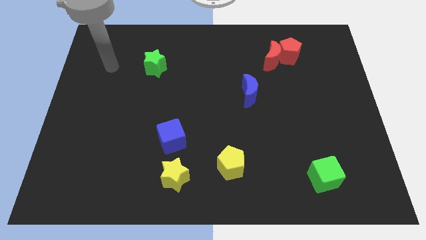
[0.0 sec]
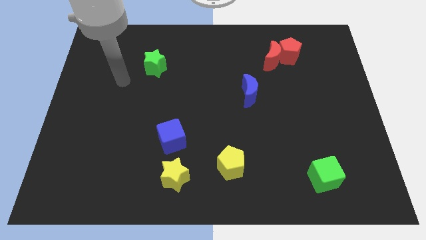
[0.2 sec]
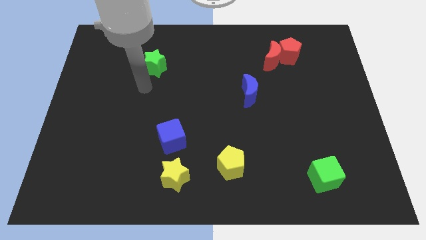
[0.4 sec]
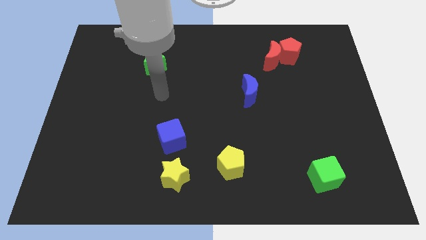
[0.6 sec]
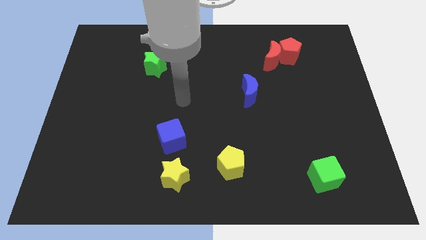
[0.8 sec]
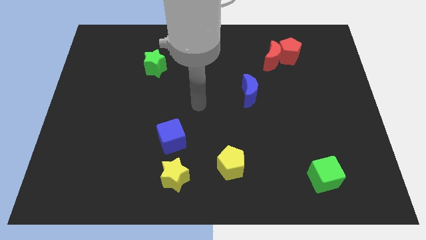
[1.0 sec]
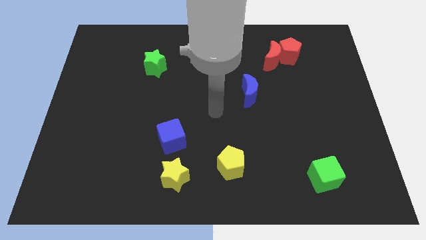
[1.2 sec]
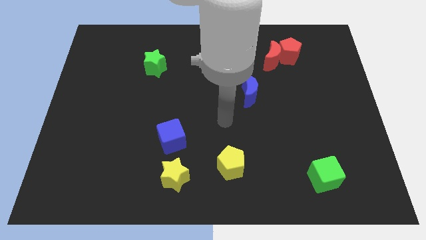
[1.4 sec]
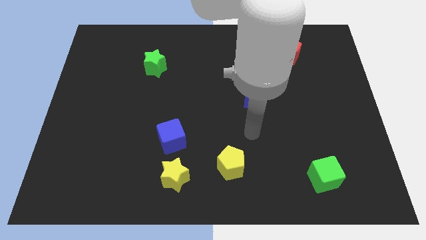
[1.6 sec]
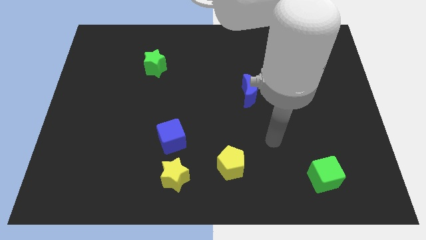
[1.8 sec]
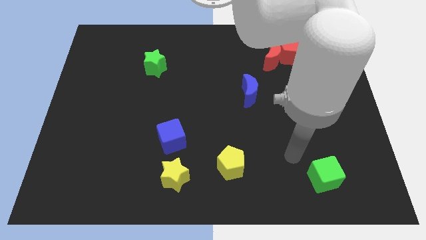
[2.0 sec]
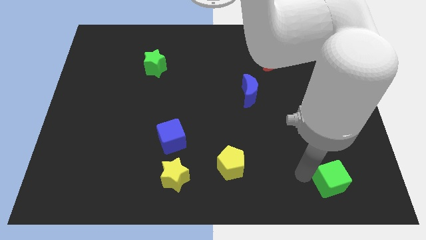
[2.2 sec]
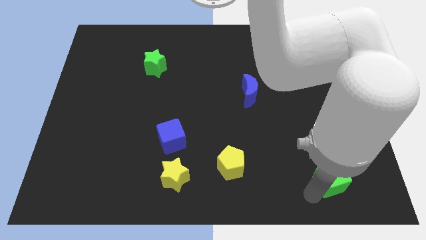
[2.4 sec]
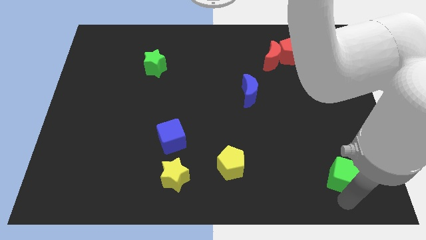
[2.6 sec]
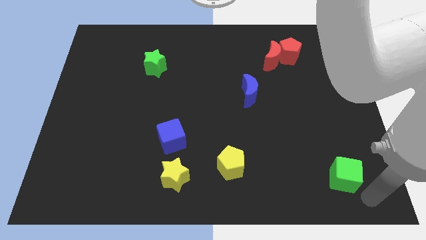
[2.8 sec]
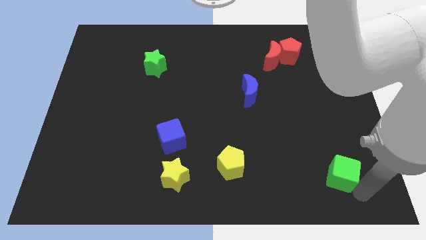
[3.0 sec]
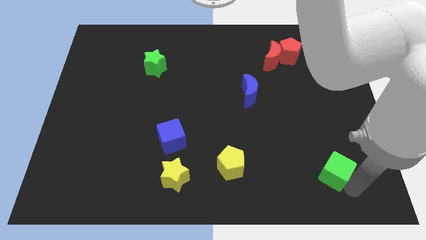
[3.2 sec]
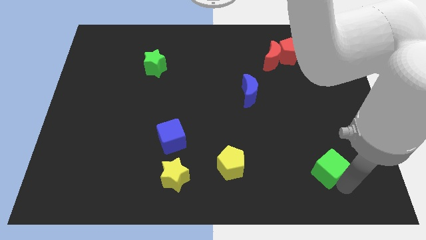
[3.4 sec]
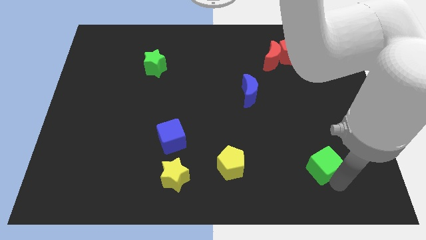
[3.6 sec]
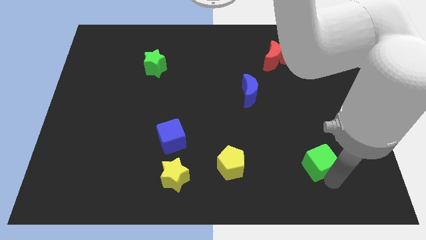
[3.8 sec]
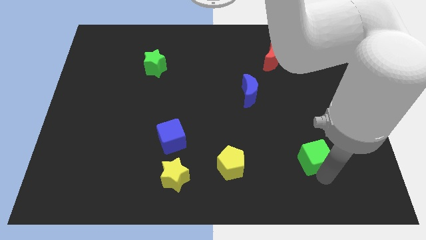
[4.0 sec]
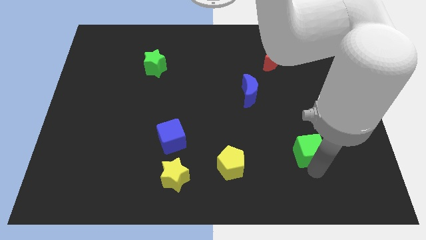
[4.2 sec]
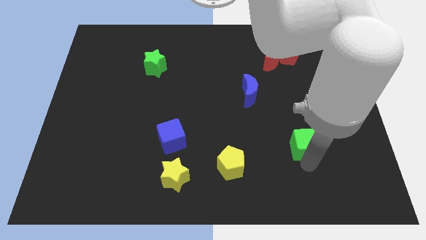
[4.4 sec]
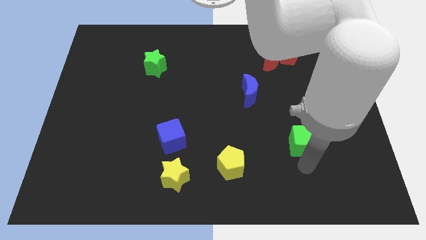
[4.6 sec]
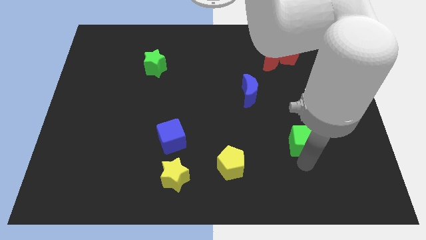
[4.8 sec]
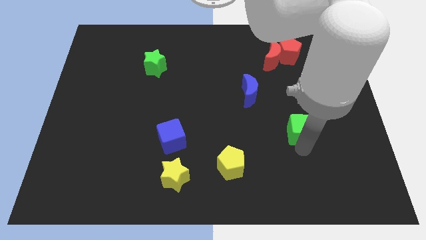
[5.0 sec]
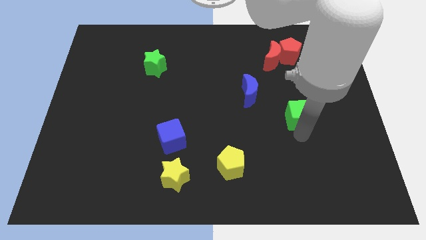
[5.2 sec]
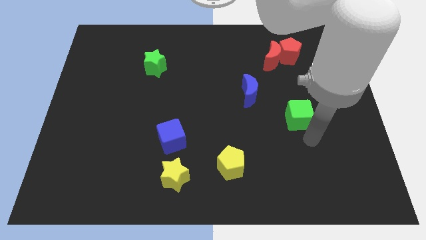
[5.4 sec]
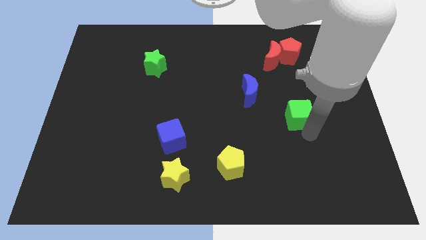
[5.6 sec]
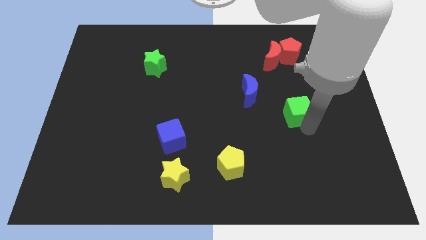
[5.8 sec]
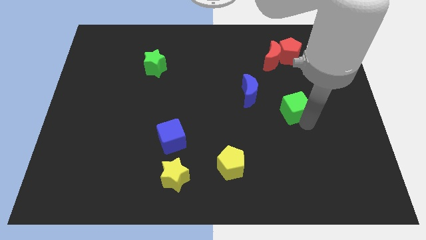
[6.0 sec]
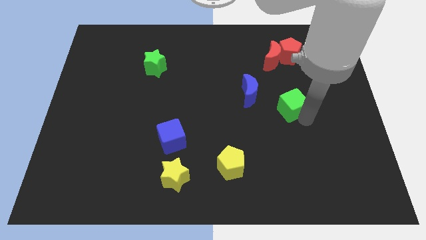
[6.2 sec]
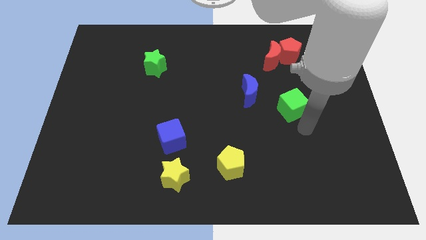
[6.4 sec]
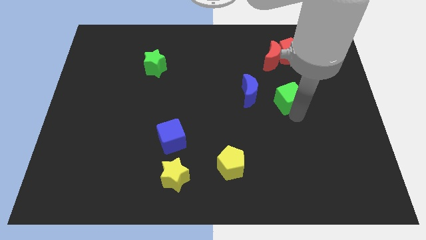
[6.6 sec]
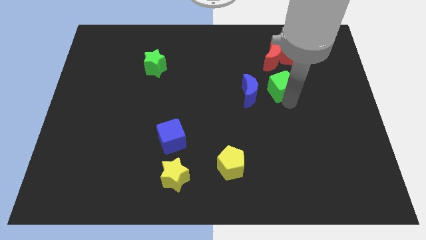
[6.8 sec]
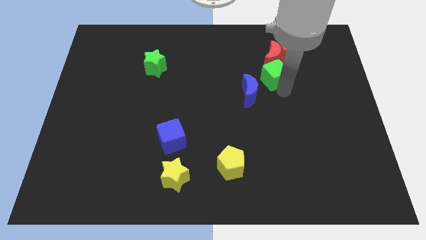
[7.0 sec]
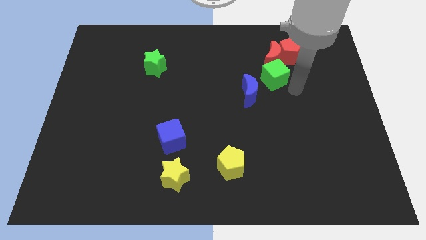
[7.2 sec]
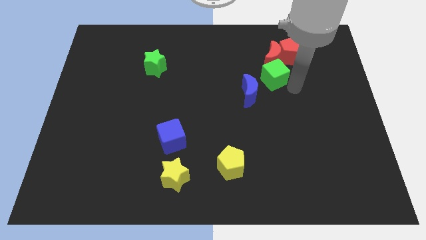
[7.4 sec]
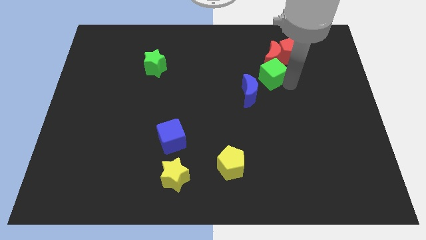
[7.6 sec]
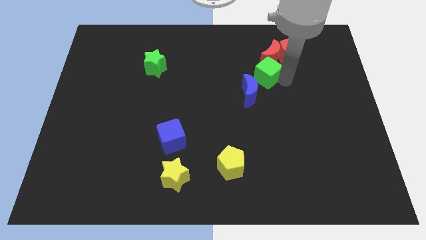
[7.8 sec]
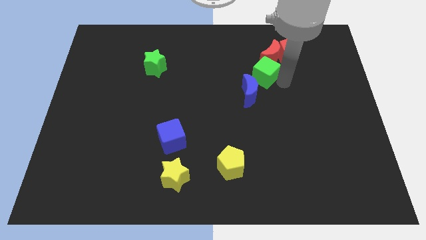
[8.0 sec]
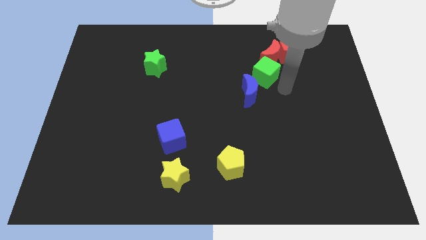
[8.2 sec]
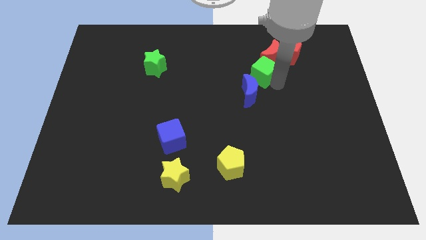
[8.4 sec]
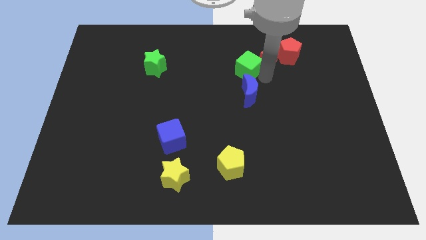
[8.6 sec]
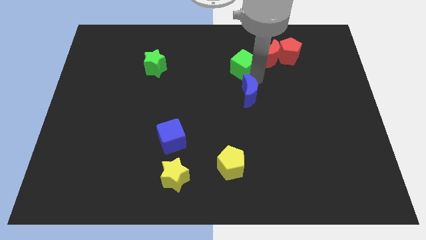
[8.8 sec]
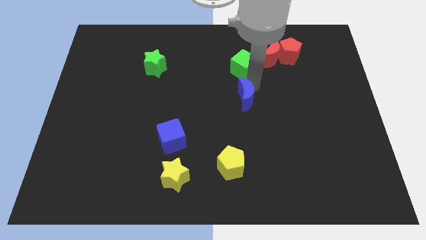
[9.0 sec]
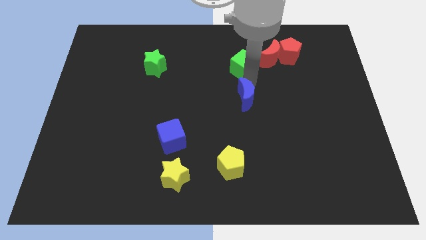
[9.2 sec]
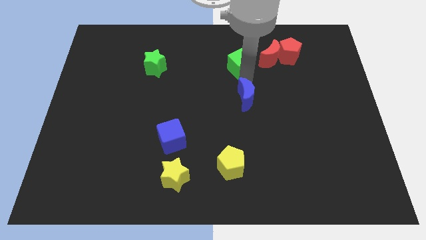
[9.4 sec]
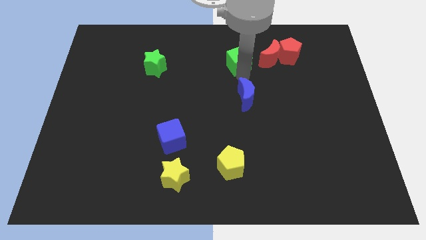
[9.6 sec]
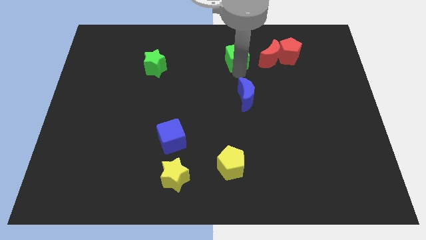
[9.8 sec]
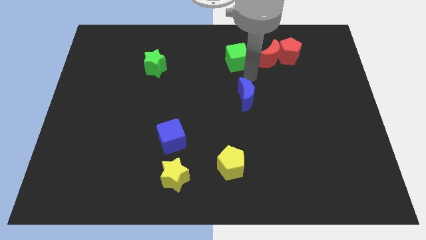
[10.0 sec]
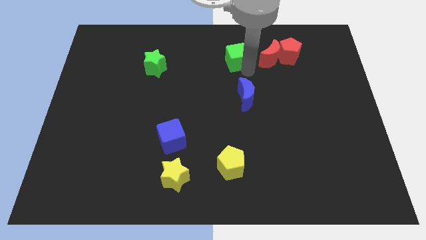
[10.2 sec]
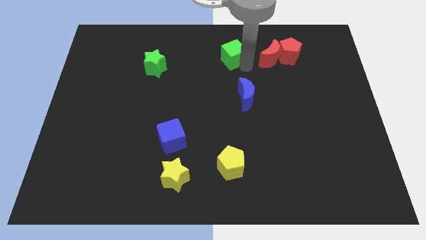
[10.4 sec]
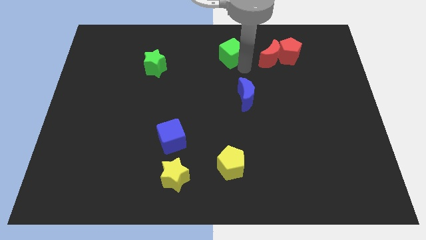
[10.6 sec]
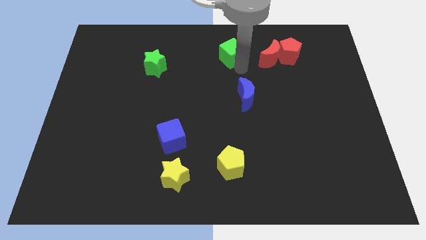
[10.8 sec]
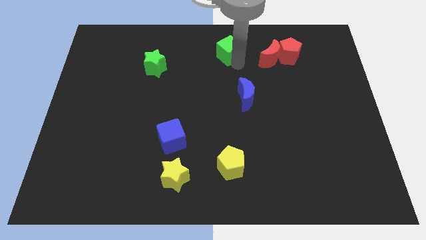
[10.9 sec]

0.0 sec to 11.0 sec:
put the green cube to the top side

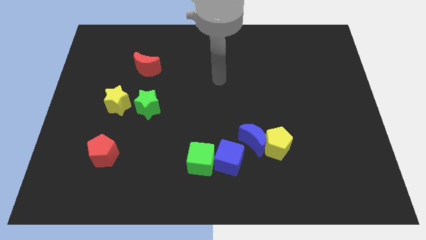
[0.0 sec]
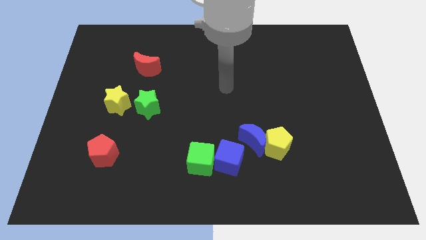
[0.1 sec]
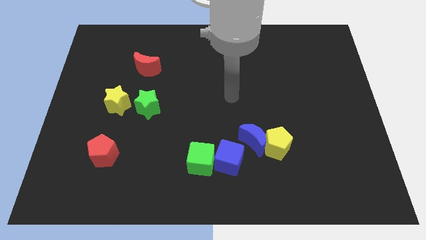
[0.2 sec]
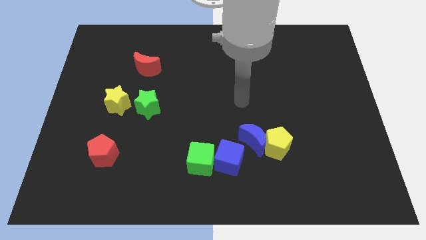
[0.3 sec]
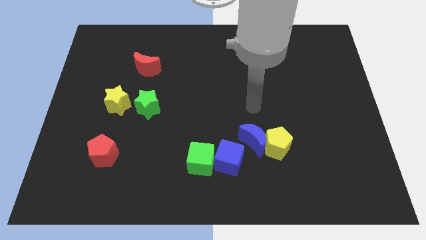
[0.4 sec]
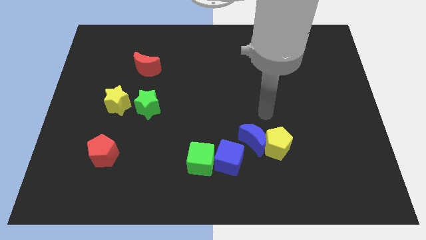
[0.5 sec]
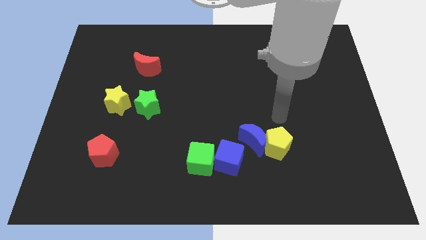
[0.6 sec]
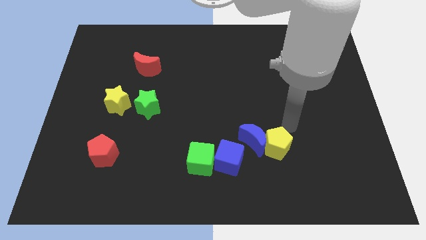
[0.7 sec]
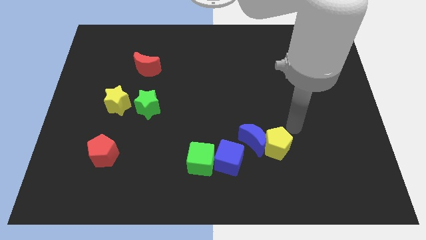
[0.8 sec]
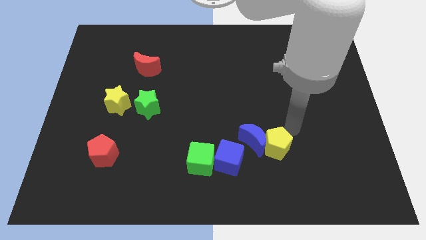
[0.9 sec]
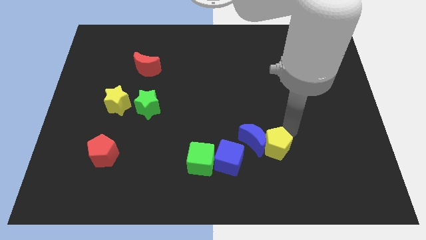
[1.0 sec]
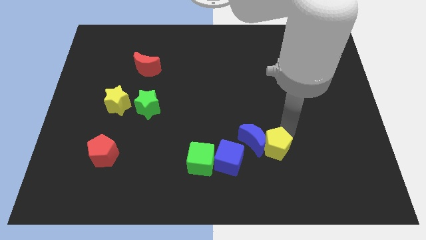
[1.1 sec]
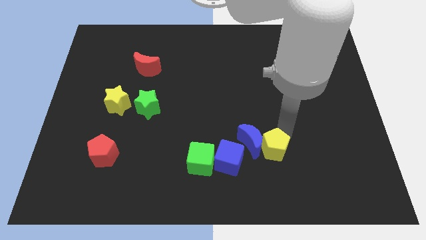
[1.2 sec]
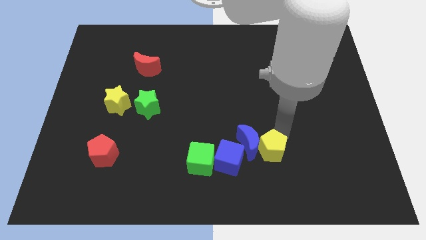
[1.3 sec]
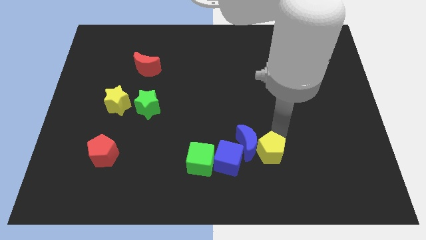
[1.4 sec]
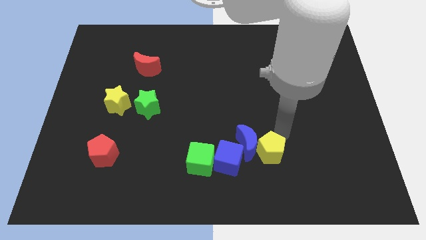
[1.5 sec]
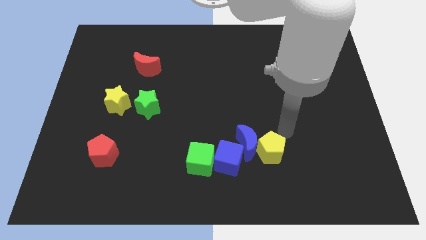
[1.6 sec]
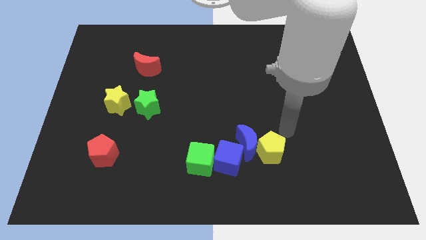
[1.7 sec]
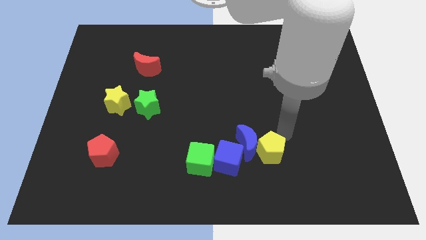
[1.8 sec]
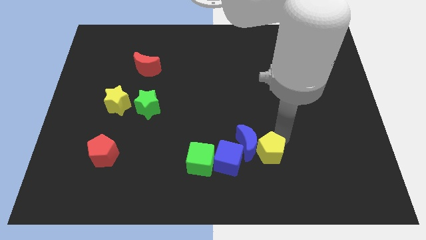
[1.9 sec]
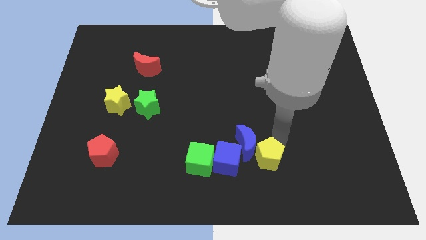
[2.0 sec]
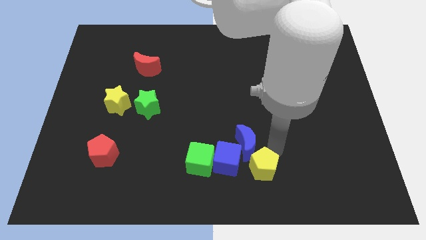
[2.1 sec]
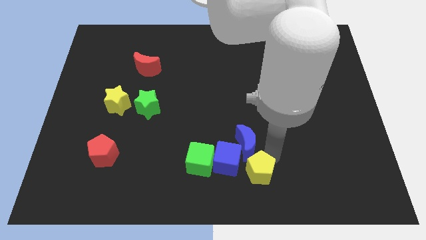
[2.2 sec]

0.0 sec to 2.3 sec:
push the yellow pentagon to the bottom side

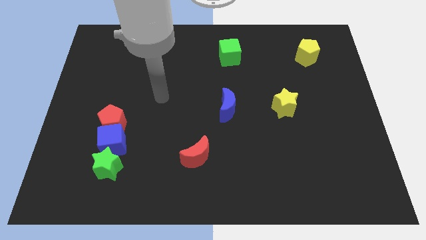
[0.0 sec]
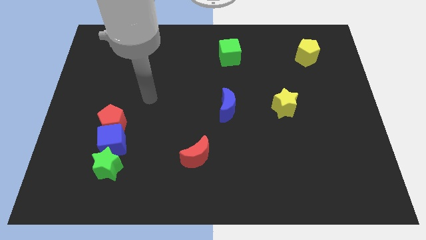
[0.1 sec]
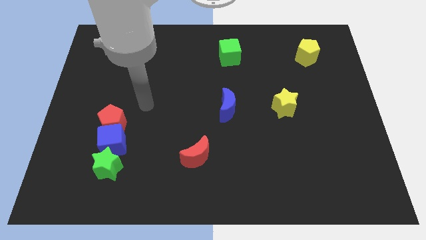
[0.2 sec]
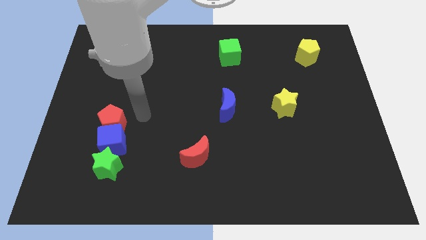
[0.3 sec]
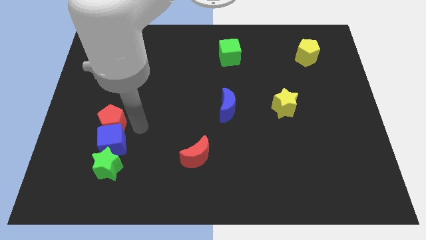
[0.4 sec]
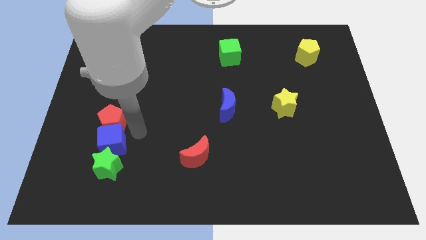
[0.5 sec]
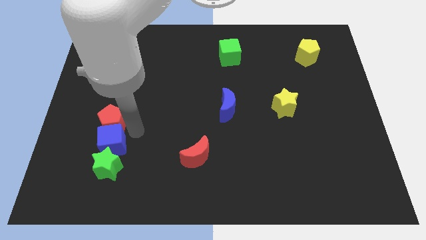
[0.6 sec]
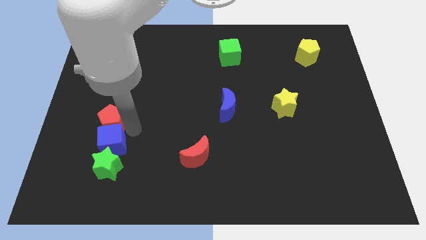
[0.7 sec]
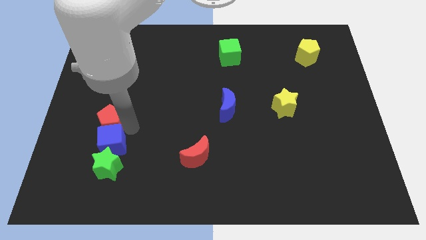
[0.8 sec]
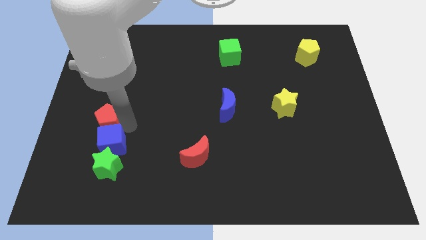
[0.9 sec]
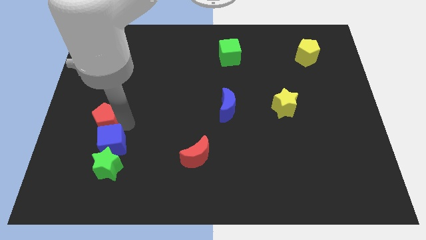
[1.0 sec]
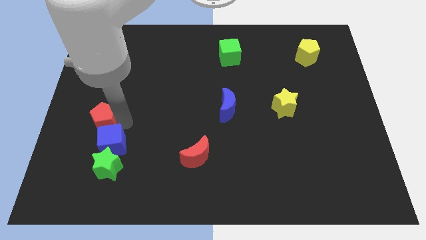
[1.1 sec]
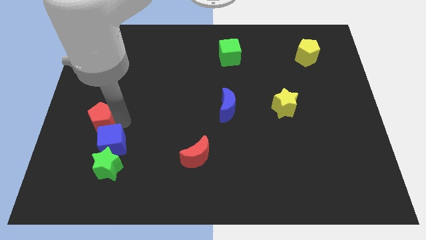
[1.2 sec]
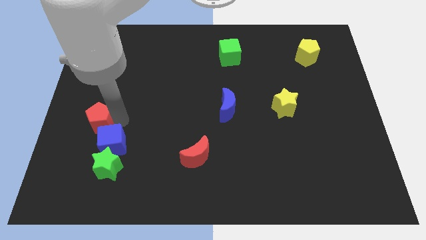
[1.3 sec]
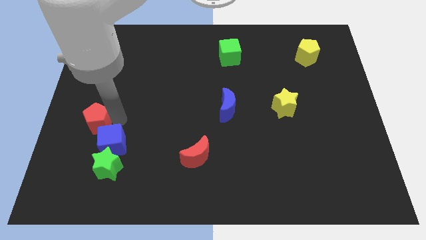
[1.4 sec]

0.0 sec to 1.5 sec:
put the red pentagon to the center left
